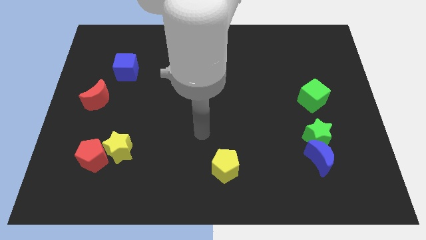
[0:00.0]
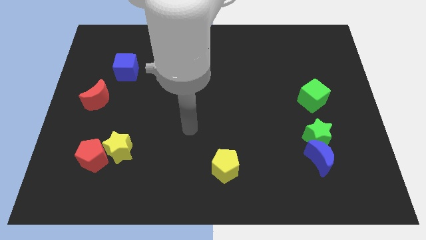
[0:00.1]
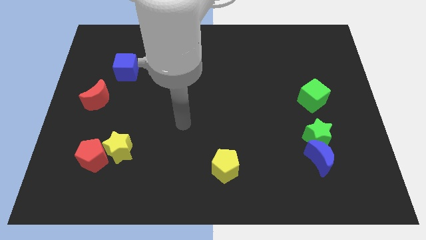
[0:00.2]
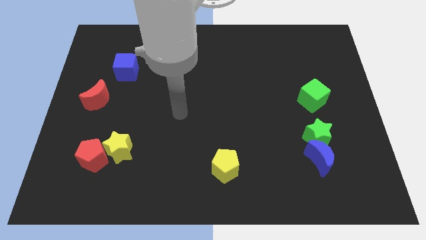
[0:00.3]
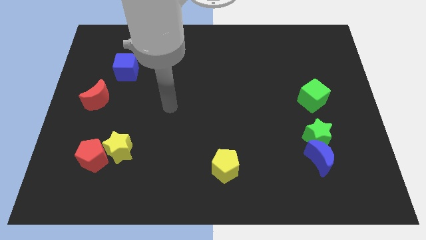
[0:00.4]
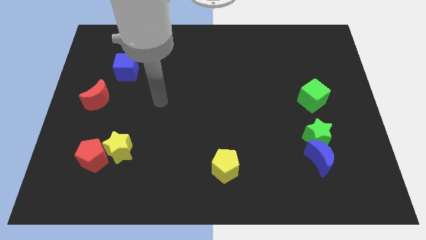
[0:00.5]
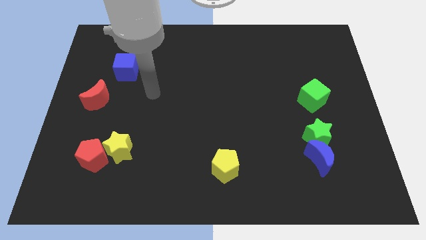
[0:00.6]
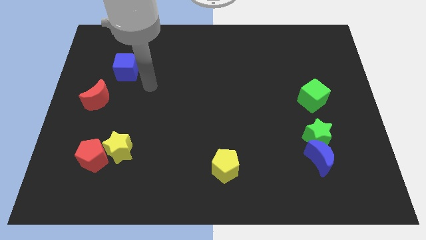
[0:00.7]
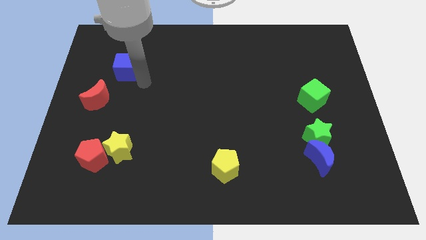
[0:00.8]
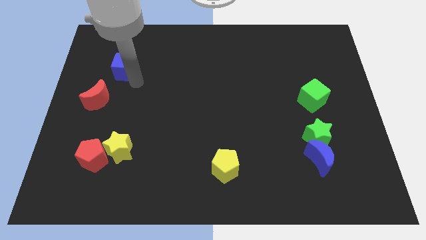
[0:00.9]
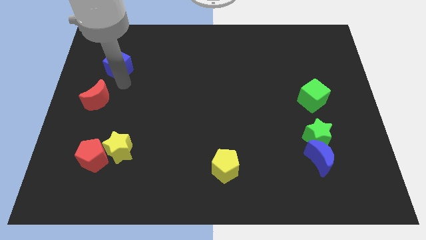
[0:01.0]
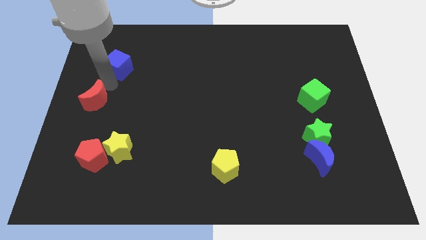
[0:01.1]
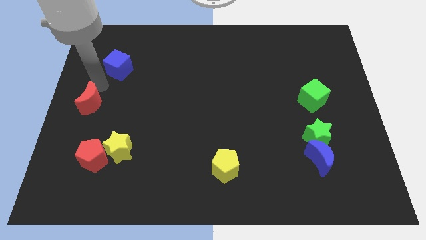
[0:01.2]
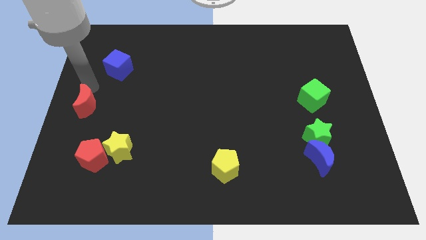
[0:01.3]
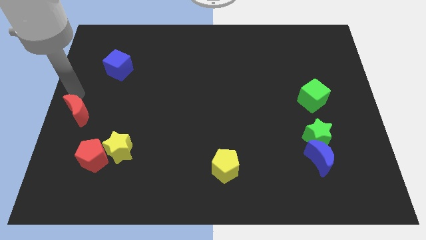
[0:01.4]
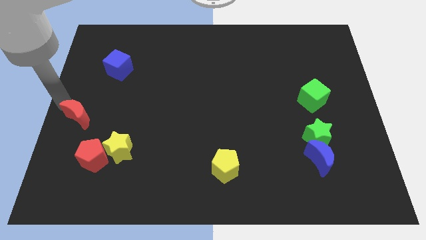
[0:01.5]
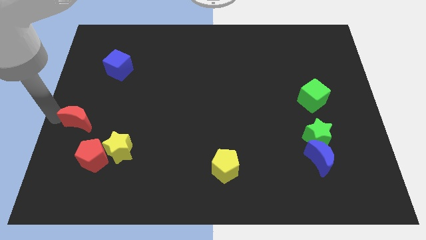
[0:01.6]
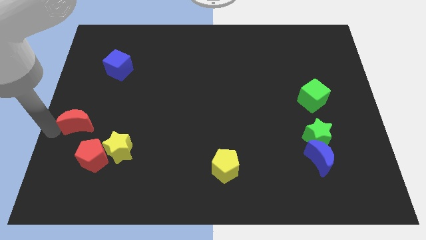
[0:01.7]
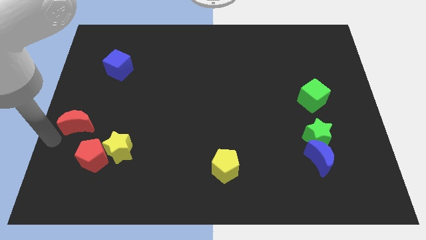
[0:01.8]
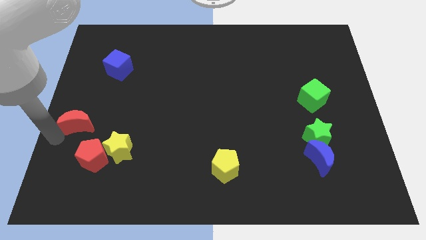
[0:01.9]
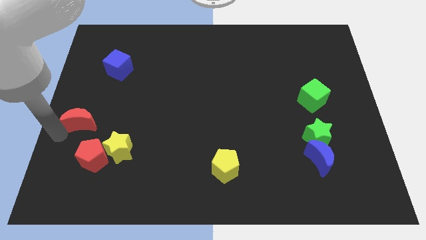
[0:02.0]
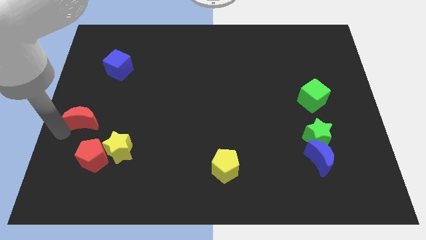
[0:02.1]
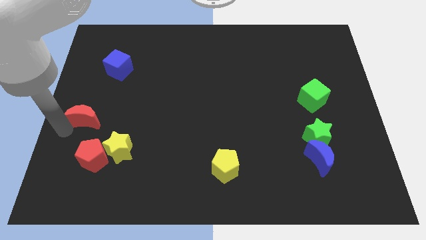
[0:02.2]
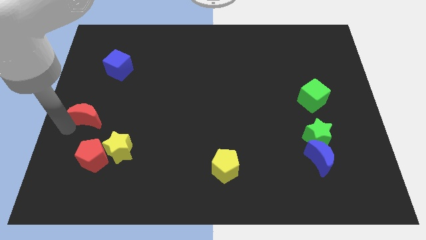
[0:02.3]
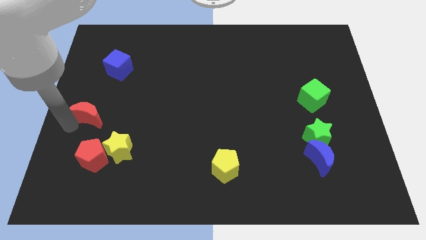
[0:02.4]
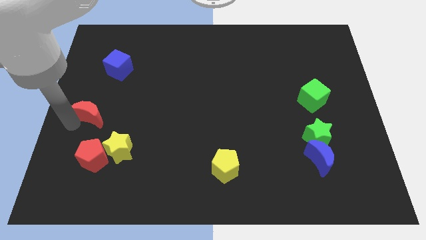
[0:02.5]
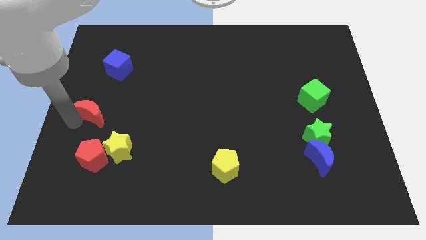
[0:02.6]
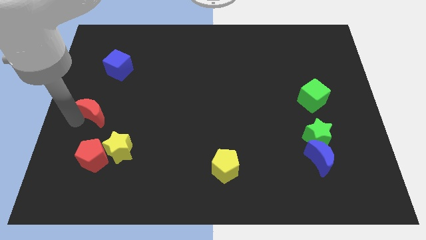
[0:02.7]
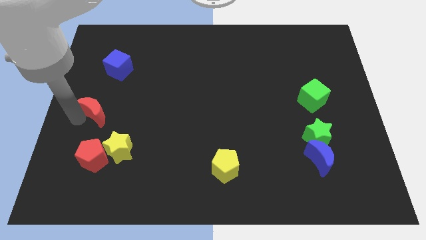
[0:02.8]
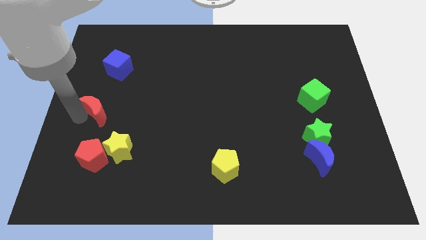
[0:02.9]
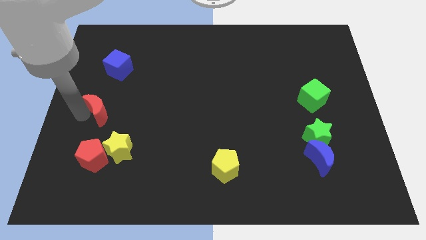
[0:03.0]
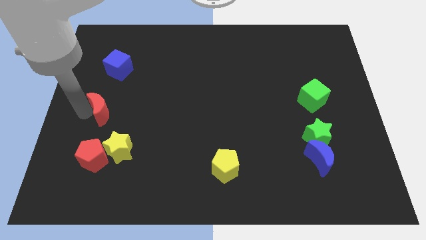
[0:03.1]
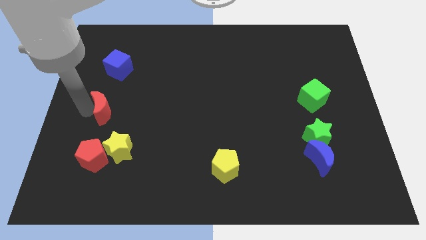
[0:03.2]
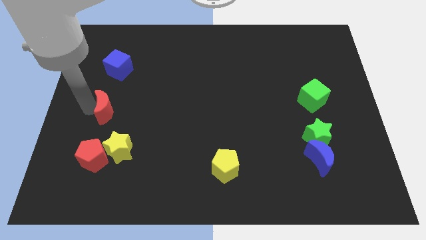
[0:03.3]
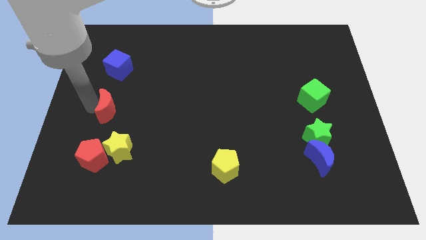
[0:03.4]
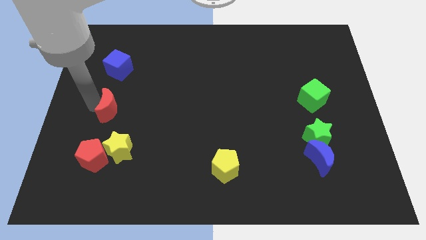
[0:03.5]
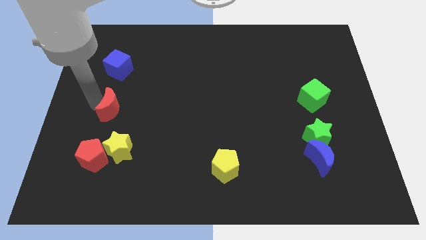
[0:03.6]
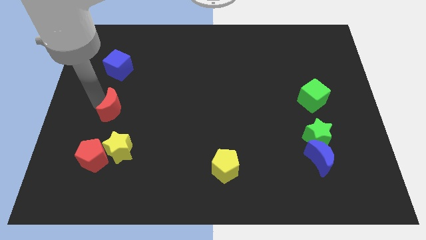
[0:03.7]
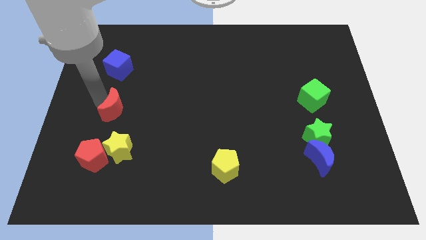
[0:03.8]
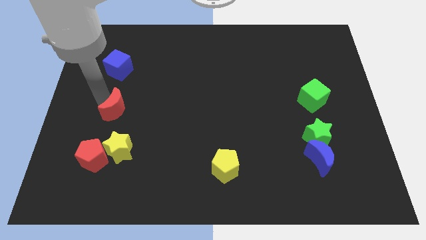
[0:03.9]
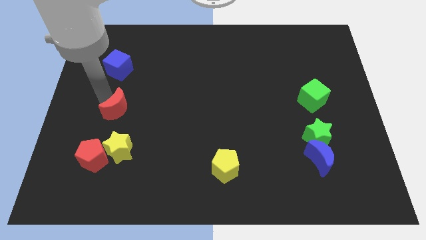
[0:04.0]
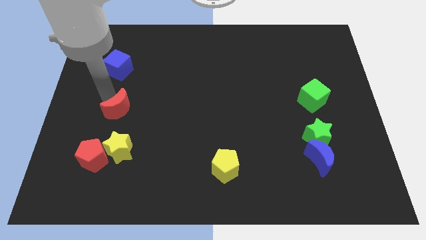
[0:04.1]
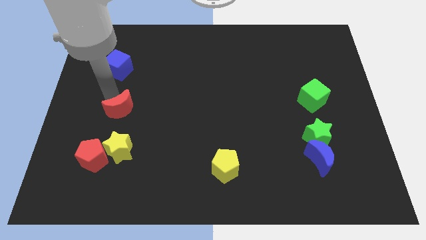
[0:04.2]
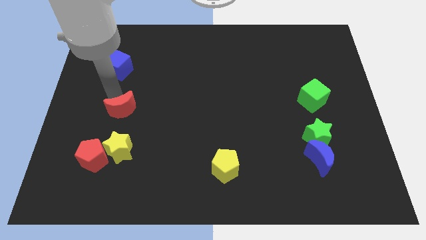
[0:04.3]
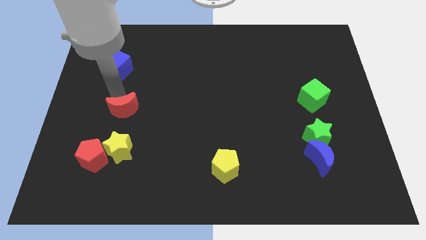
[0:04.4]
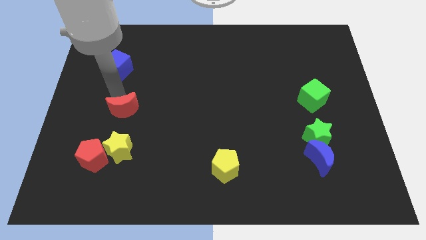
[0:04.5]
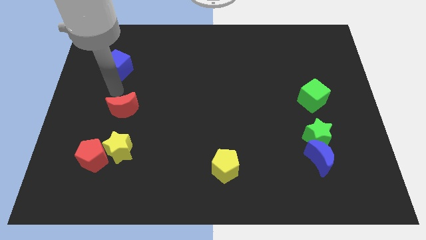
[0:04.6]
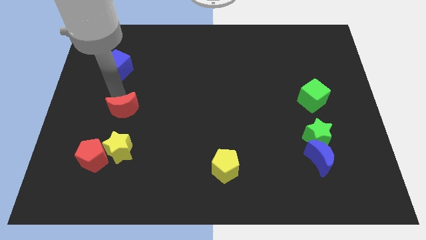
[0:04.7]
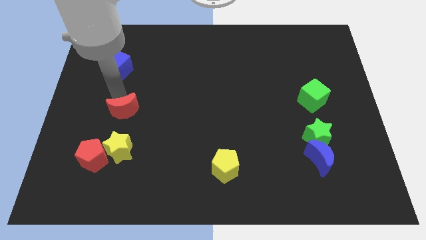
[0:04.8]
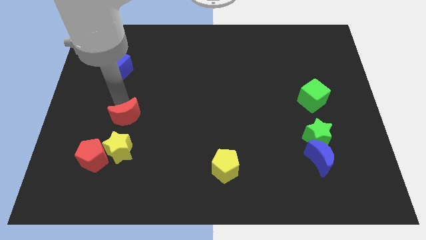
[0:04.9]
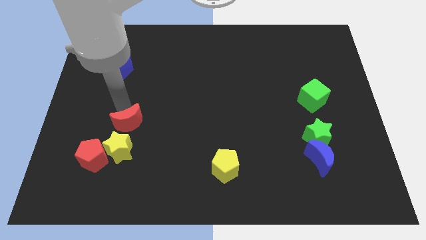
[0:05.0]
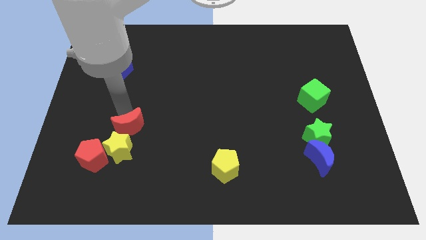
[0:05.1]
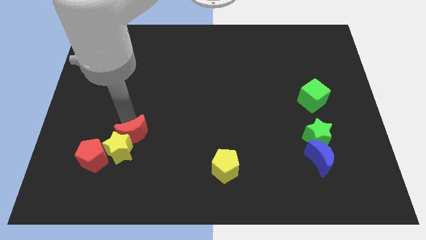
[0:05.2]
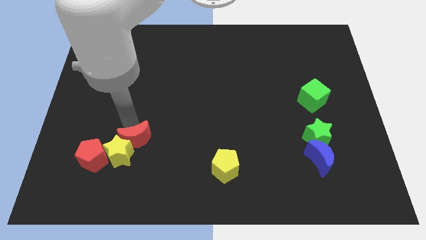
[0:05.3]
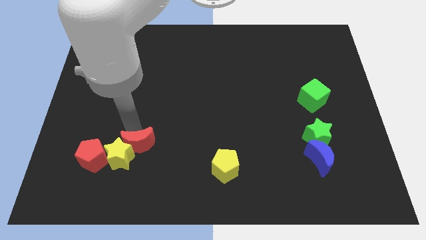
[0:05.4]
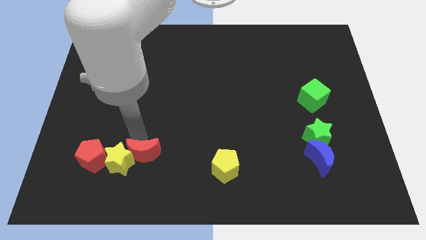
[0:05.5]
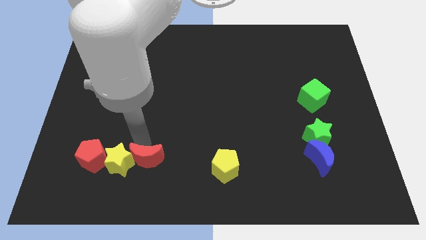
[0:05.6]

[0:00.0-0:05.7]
slide the red moon diagonally down and to the right of the yellow star

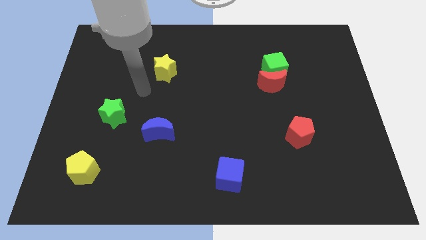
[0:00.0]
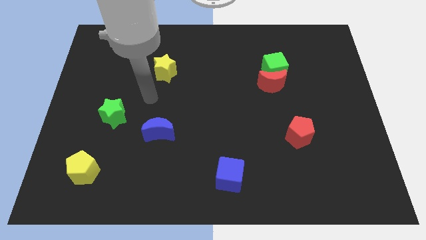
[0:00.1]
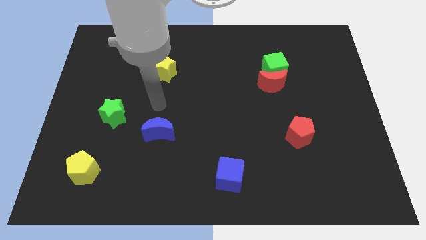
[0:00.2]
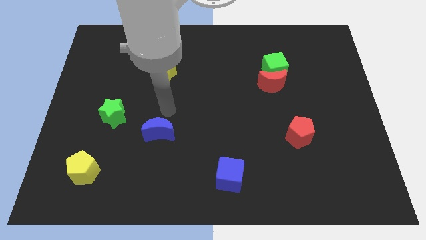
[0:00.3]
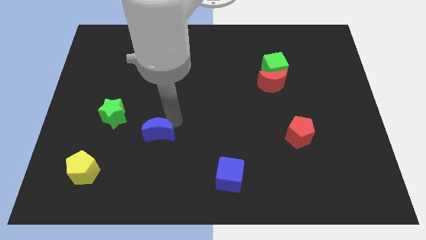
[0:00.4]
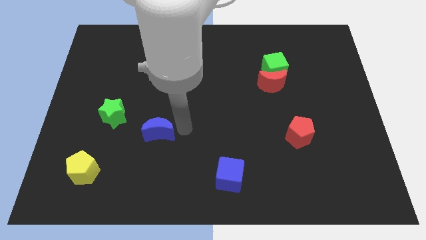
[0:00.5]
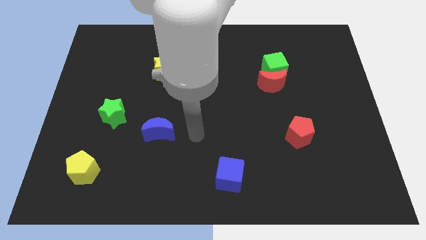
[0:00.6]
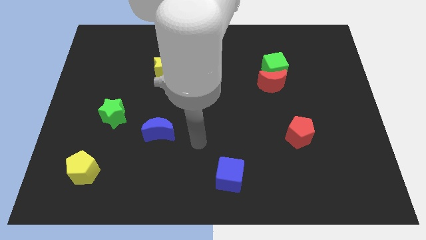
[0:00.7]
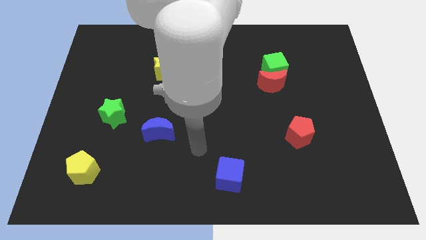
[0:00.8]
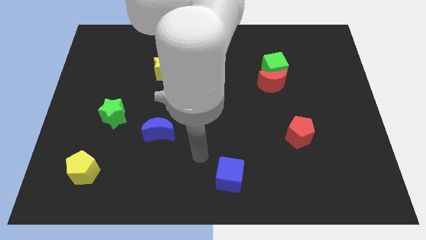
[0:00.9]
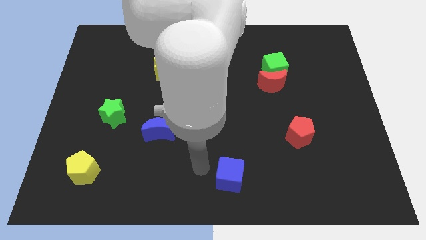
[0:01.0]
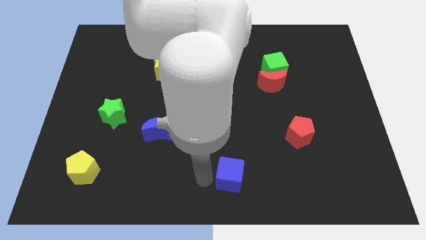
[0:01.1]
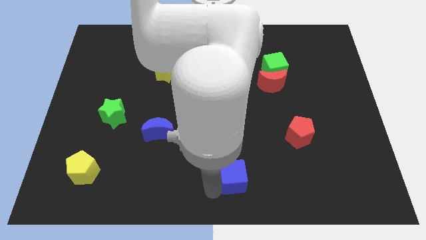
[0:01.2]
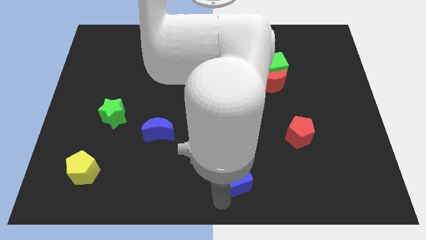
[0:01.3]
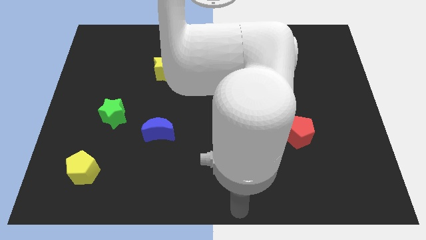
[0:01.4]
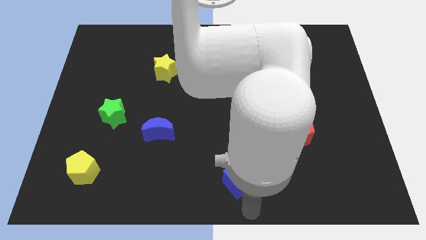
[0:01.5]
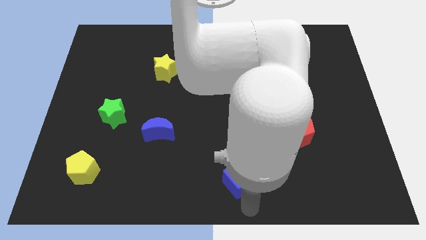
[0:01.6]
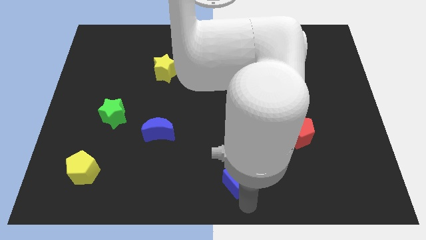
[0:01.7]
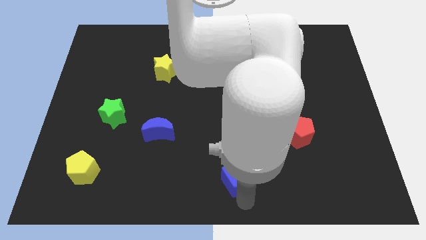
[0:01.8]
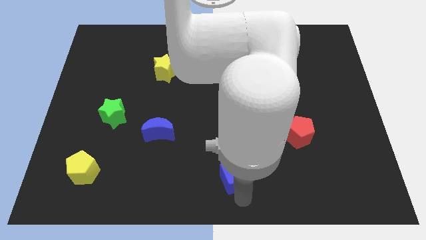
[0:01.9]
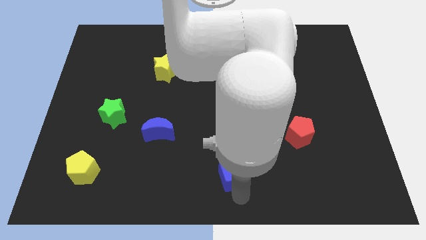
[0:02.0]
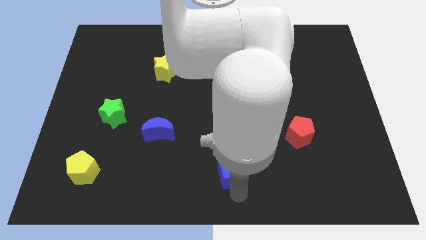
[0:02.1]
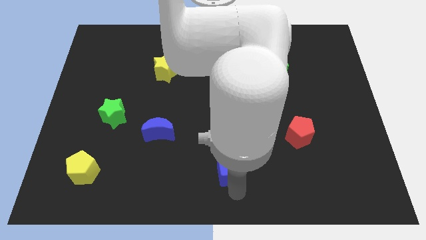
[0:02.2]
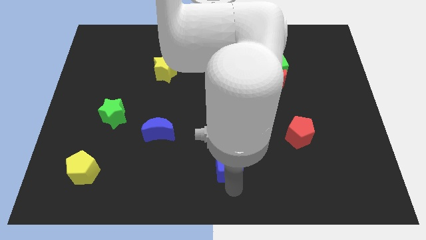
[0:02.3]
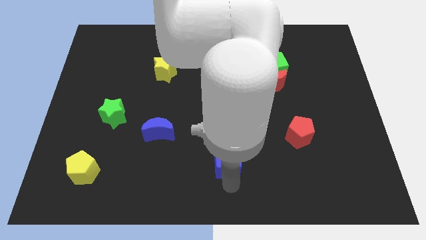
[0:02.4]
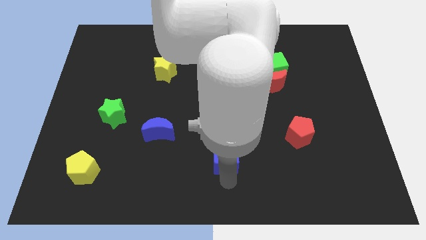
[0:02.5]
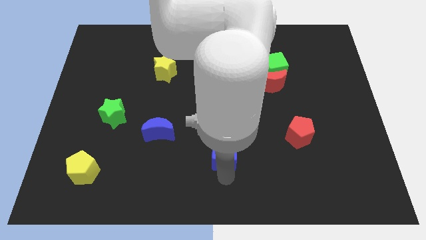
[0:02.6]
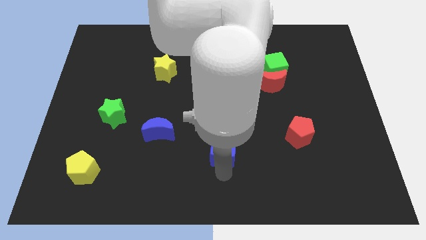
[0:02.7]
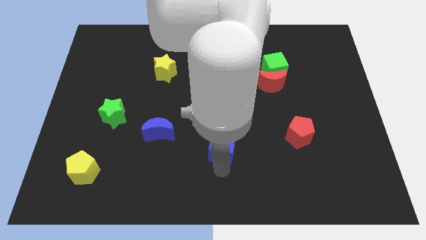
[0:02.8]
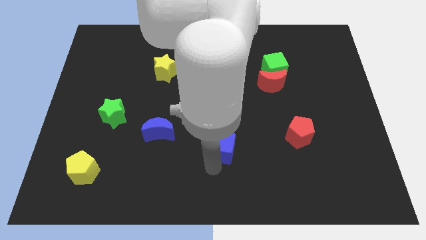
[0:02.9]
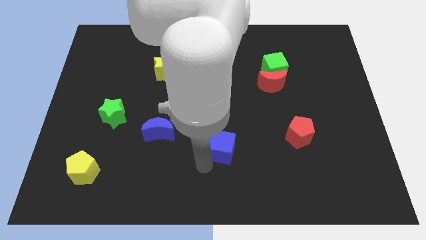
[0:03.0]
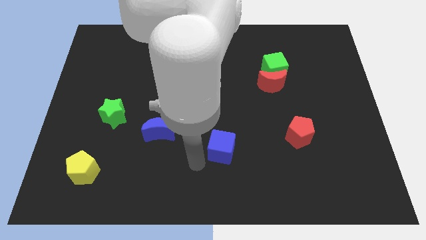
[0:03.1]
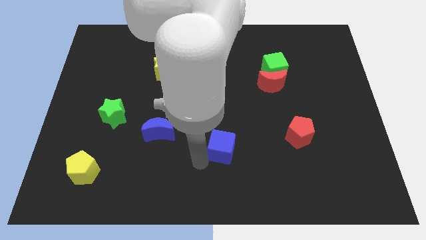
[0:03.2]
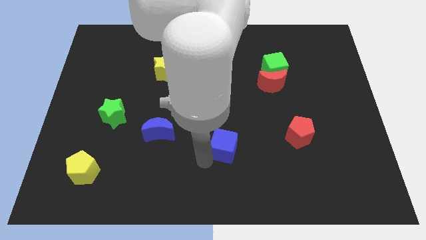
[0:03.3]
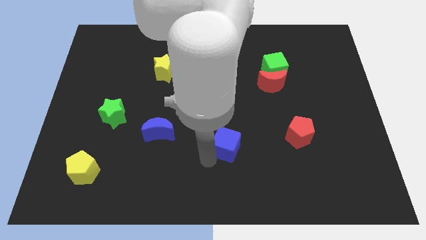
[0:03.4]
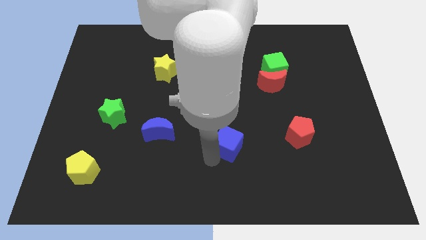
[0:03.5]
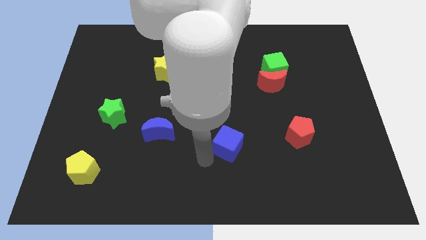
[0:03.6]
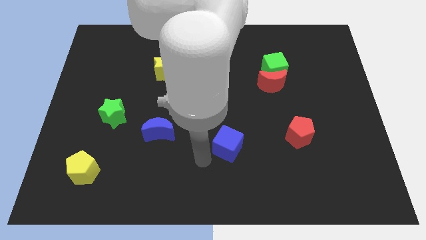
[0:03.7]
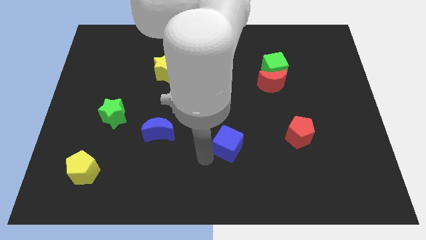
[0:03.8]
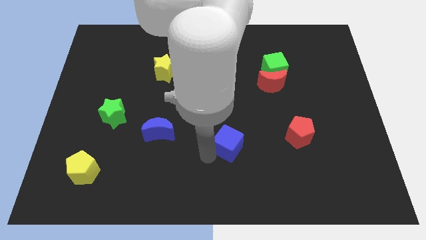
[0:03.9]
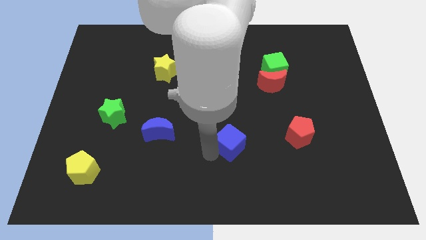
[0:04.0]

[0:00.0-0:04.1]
put the blue cube to the left of the red pentagon
